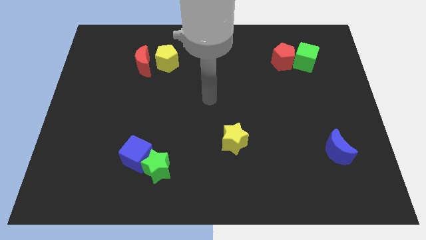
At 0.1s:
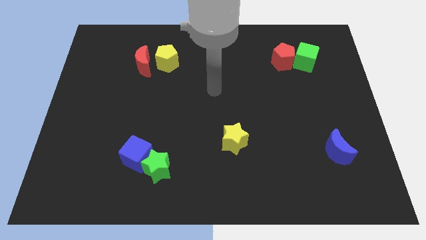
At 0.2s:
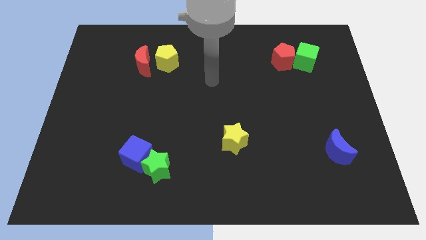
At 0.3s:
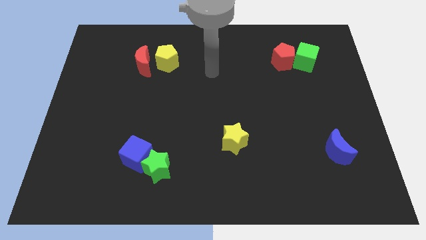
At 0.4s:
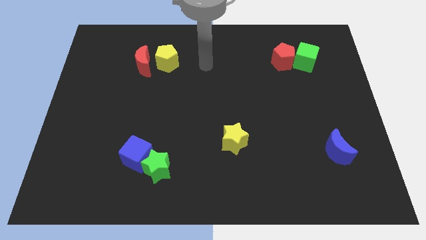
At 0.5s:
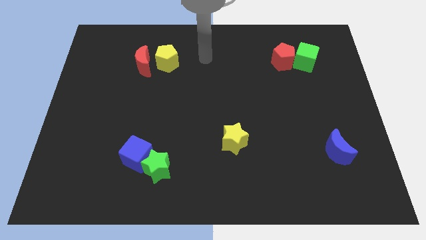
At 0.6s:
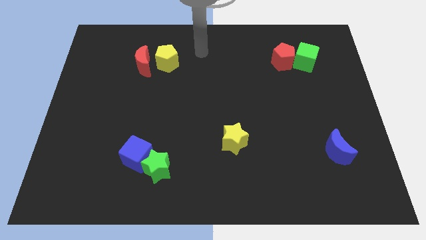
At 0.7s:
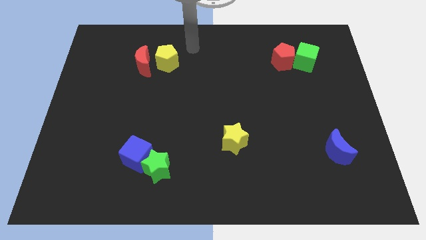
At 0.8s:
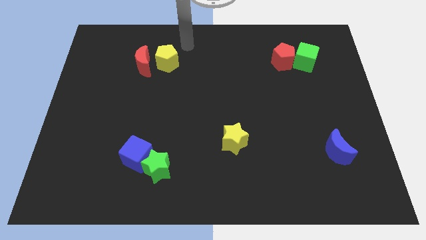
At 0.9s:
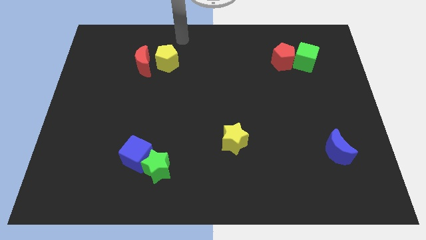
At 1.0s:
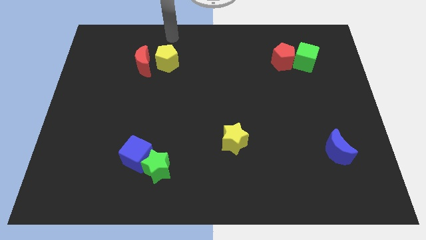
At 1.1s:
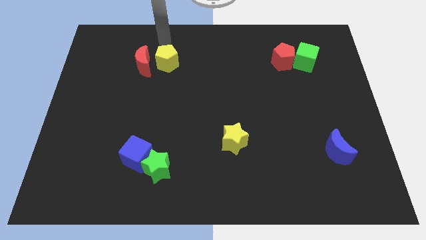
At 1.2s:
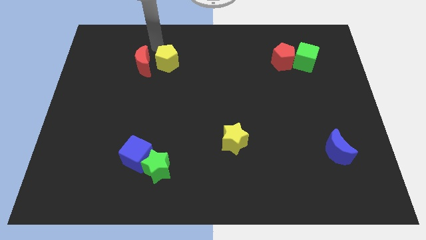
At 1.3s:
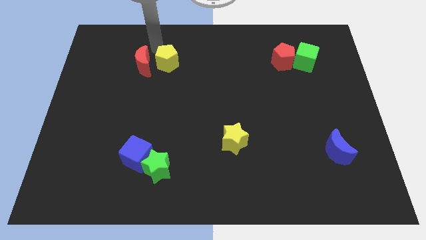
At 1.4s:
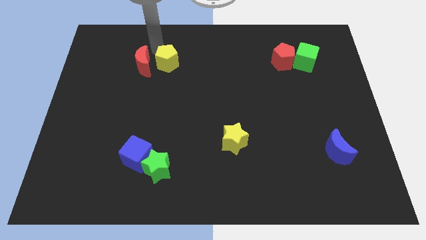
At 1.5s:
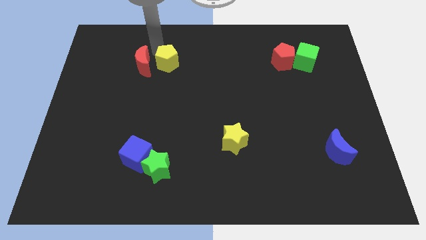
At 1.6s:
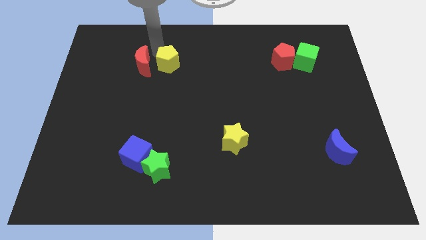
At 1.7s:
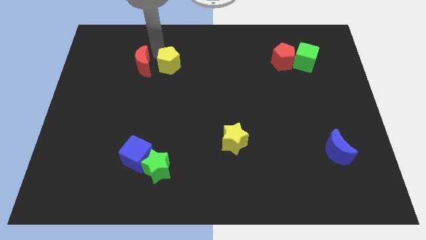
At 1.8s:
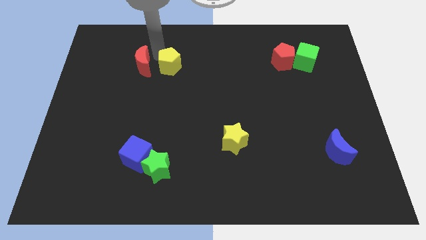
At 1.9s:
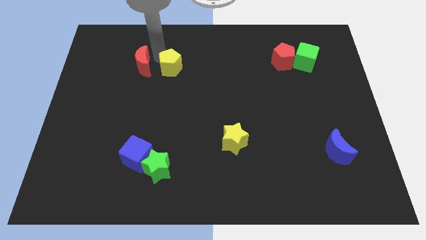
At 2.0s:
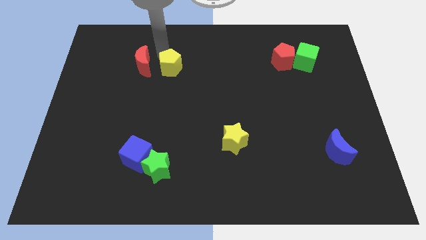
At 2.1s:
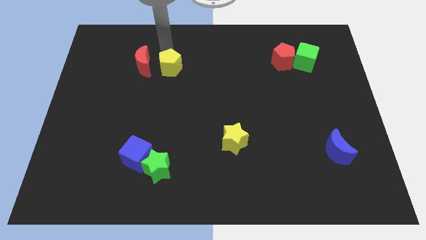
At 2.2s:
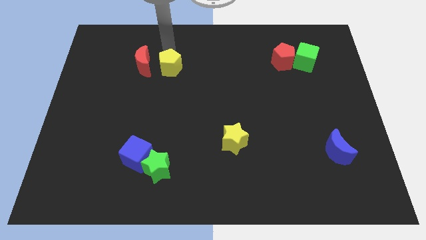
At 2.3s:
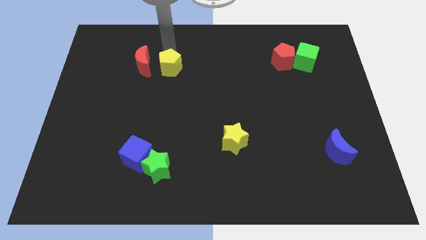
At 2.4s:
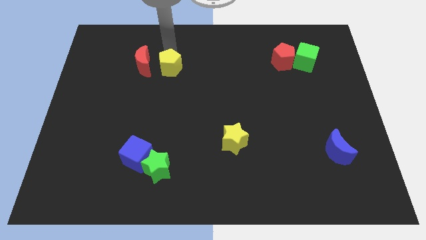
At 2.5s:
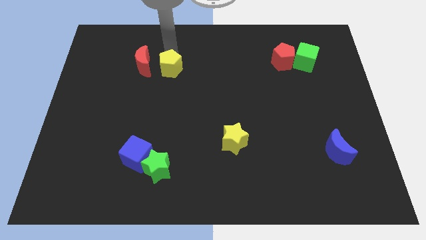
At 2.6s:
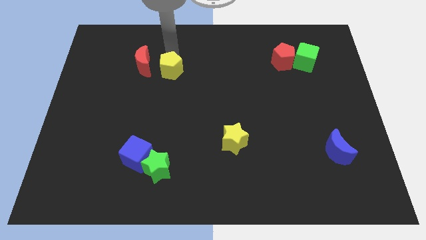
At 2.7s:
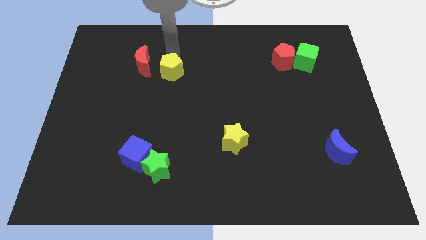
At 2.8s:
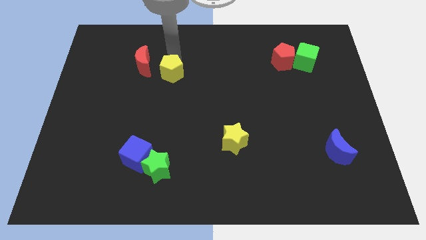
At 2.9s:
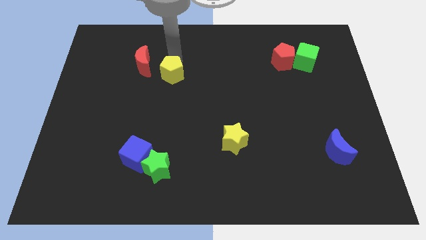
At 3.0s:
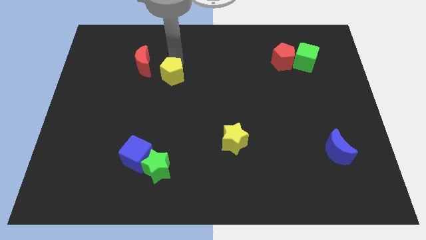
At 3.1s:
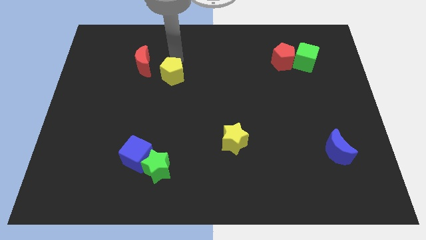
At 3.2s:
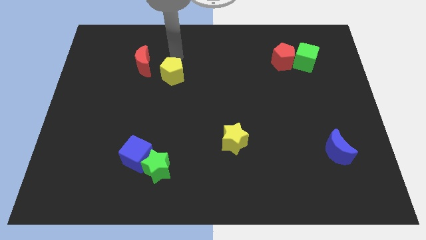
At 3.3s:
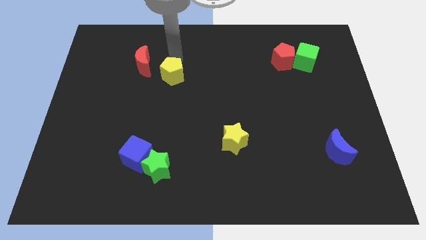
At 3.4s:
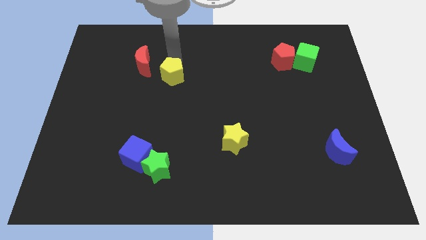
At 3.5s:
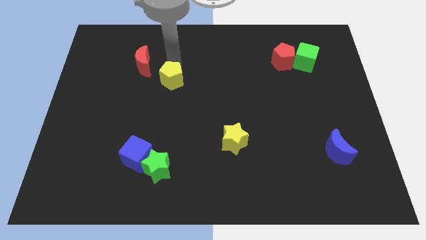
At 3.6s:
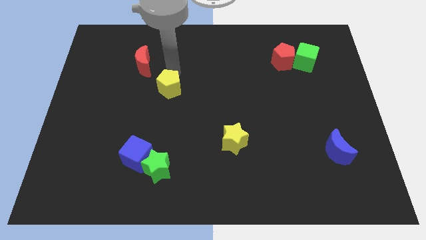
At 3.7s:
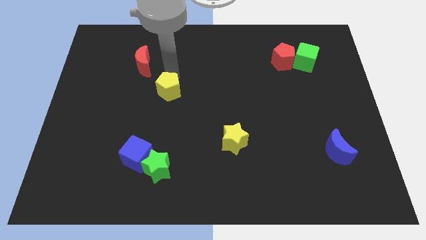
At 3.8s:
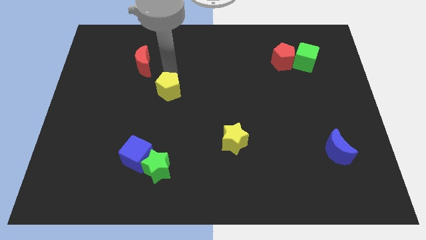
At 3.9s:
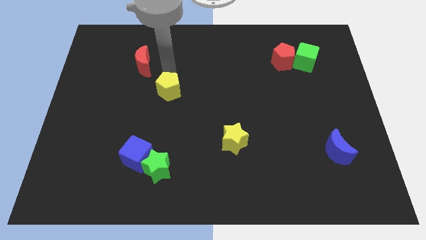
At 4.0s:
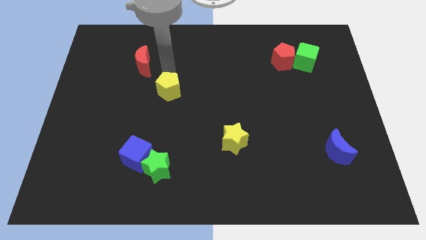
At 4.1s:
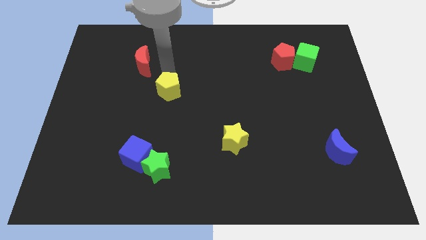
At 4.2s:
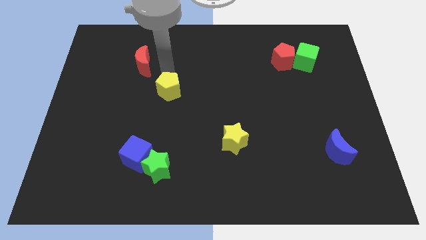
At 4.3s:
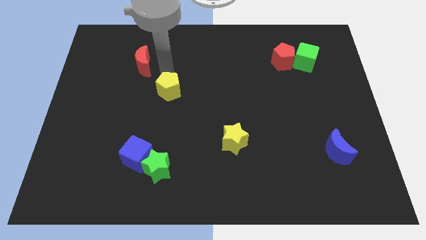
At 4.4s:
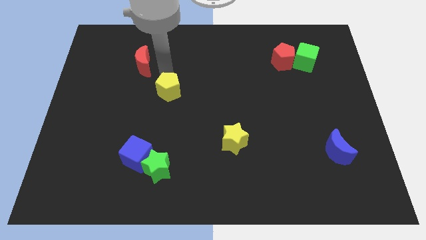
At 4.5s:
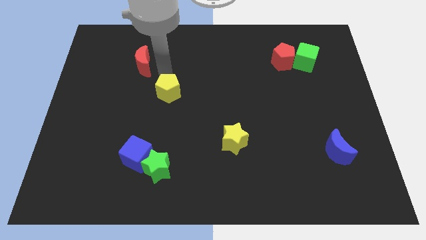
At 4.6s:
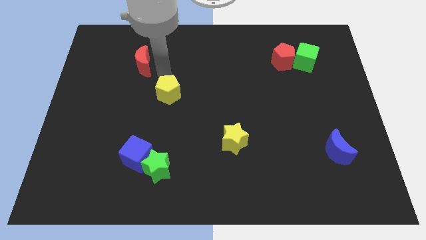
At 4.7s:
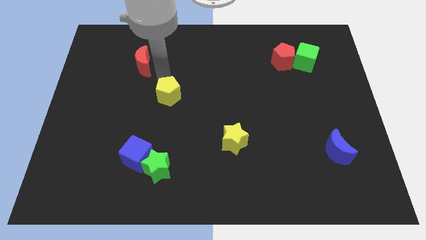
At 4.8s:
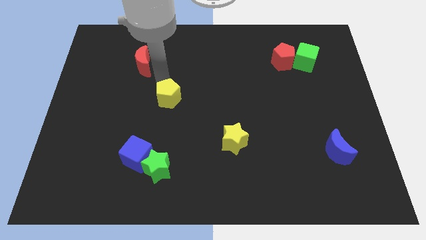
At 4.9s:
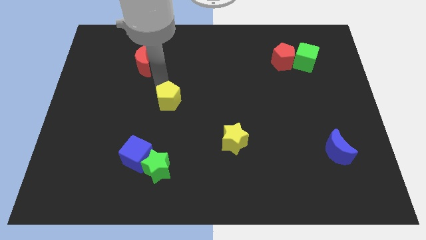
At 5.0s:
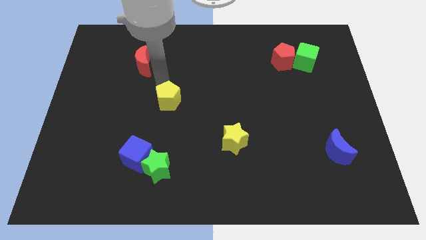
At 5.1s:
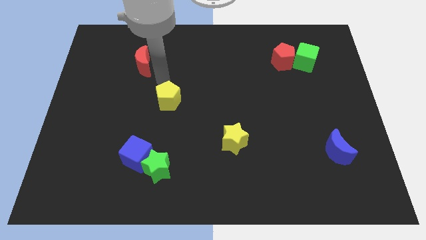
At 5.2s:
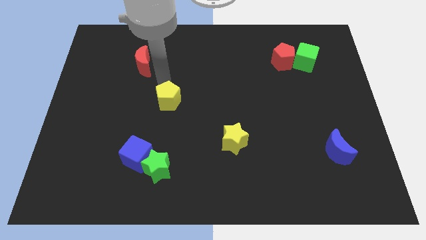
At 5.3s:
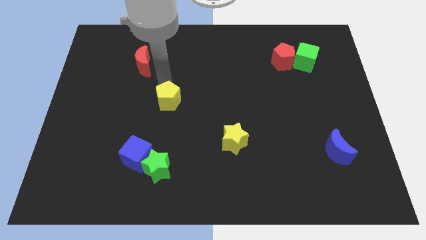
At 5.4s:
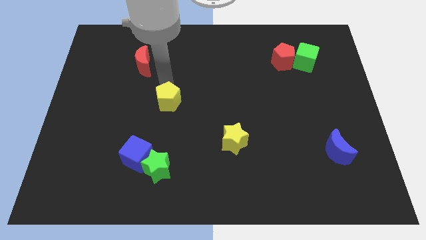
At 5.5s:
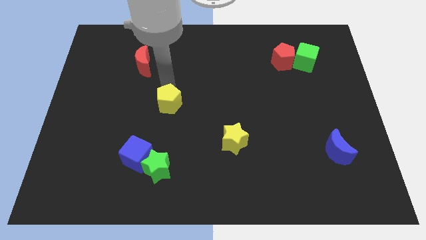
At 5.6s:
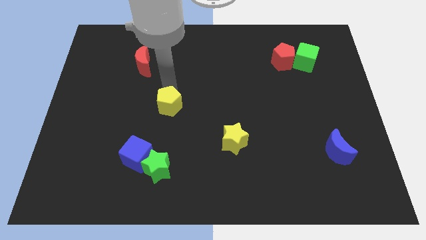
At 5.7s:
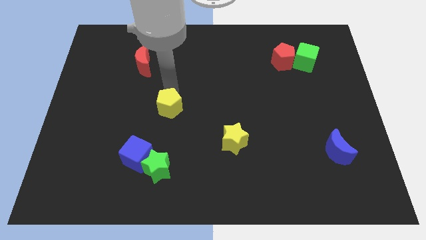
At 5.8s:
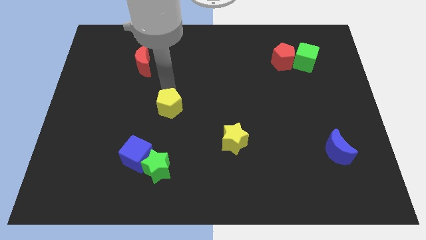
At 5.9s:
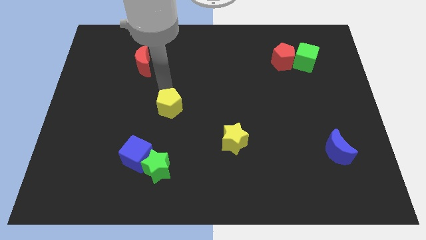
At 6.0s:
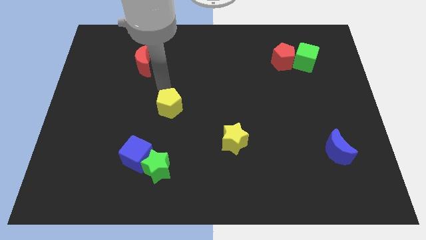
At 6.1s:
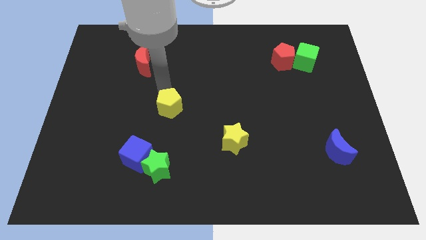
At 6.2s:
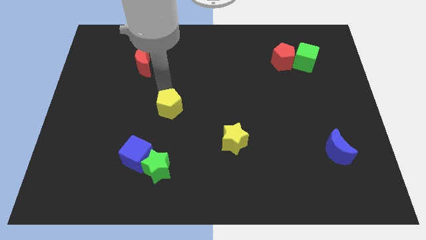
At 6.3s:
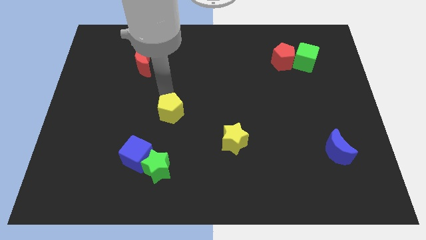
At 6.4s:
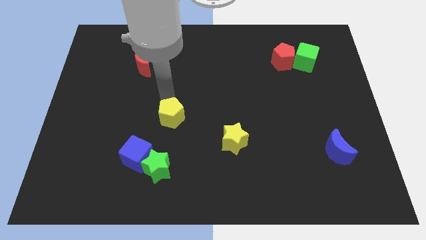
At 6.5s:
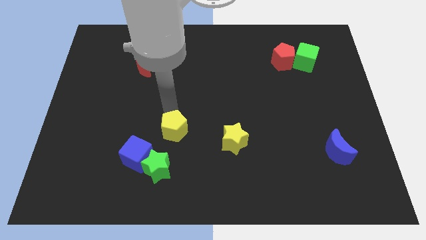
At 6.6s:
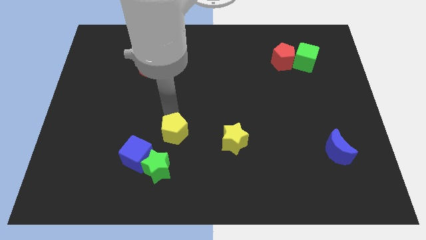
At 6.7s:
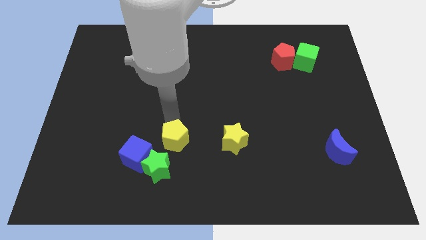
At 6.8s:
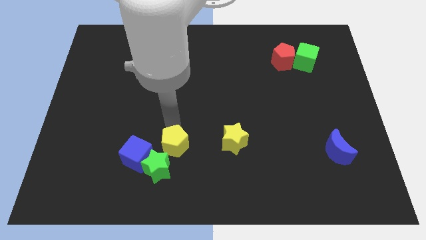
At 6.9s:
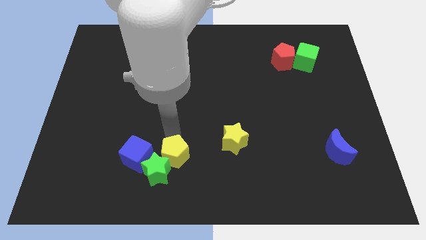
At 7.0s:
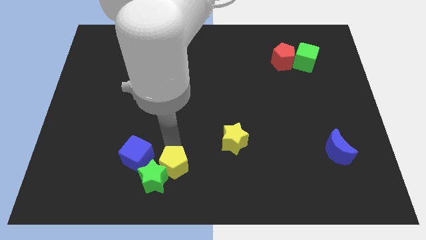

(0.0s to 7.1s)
slide the yellow pentagon to the bottom

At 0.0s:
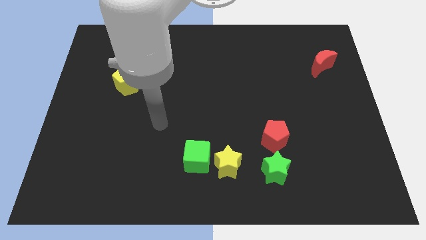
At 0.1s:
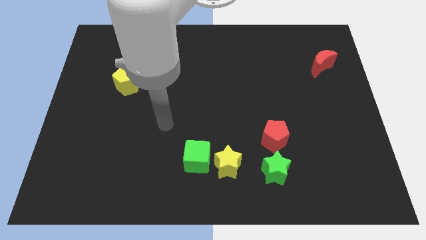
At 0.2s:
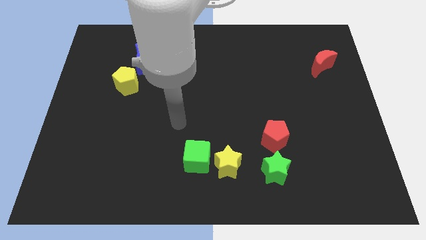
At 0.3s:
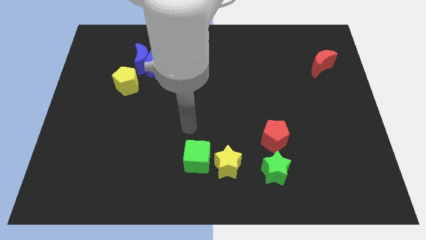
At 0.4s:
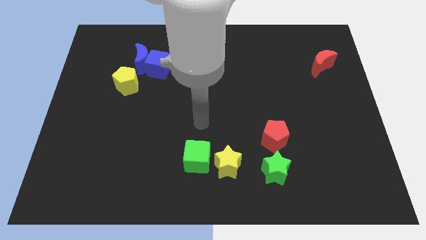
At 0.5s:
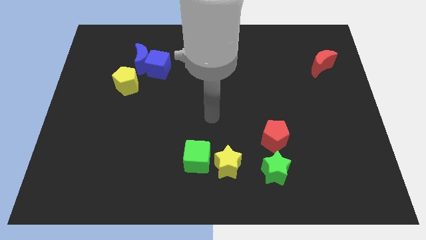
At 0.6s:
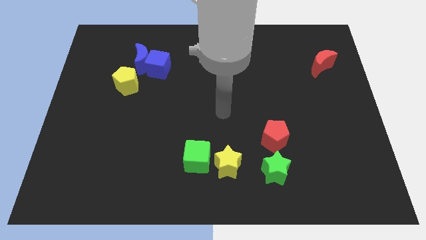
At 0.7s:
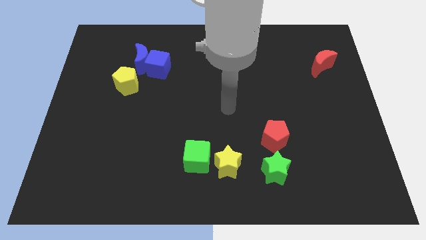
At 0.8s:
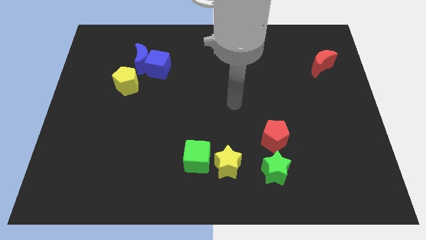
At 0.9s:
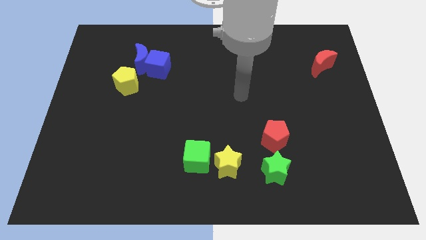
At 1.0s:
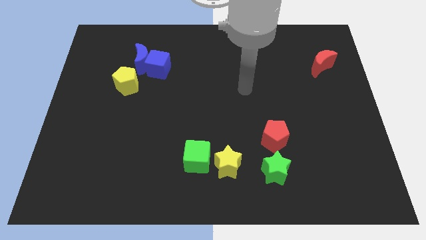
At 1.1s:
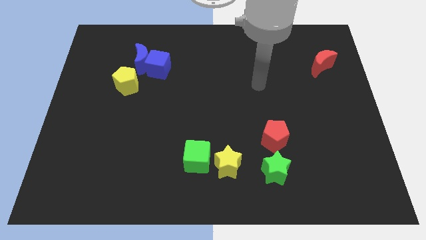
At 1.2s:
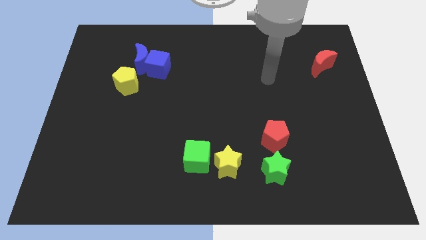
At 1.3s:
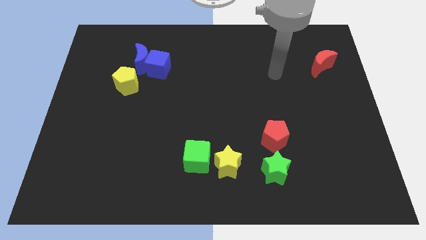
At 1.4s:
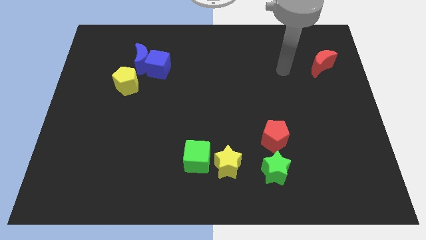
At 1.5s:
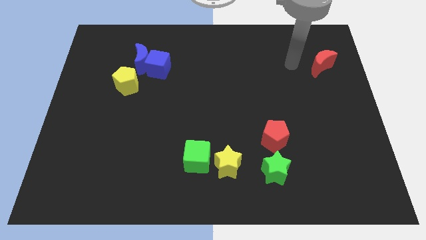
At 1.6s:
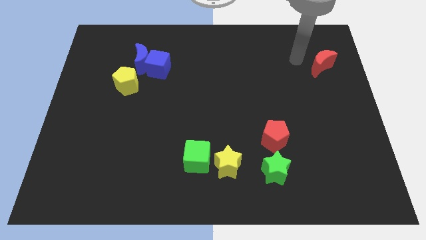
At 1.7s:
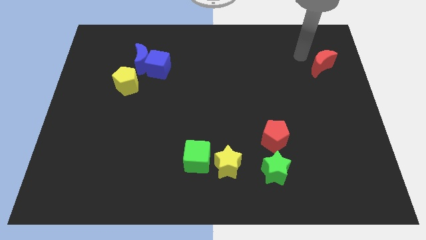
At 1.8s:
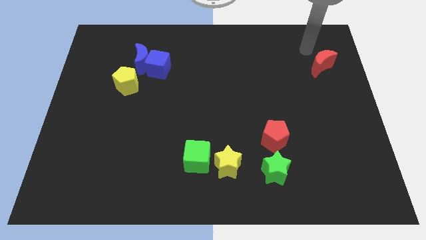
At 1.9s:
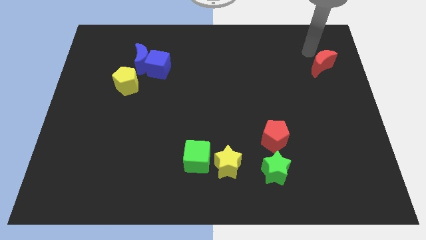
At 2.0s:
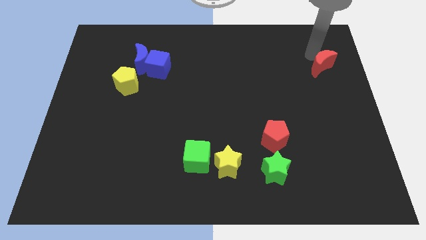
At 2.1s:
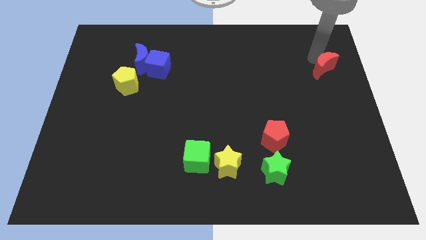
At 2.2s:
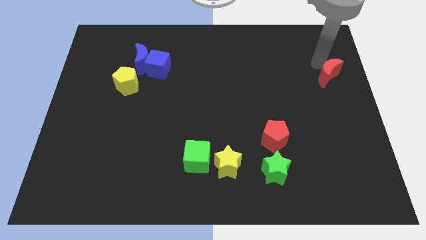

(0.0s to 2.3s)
move the red moon to the right side of the board
